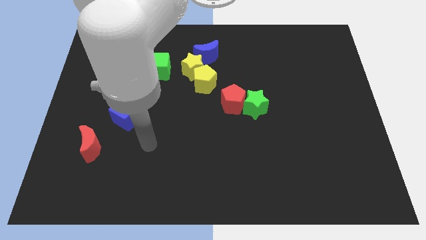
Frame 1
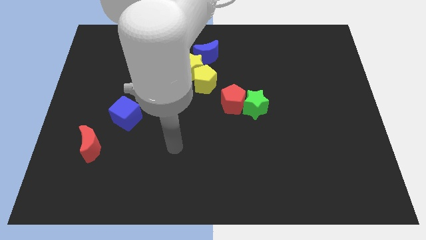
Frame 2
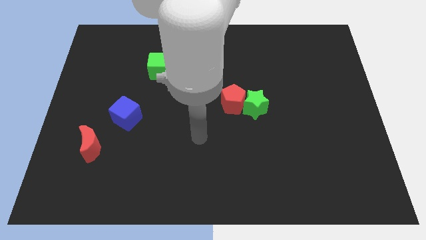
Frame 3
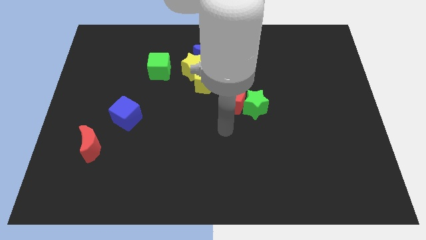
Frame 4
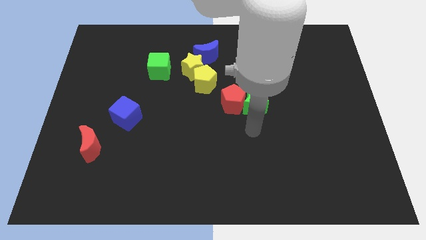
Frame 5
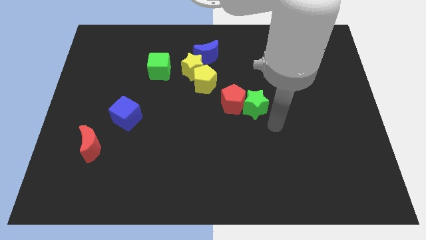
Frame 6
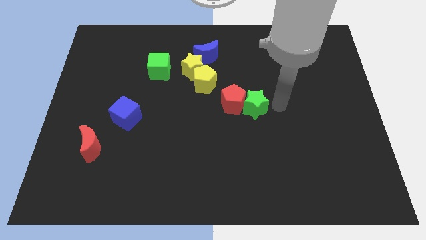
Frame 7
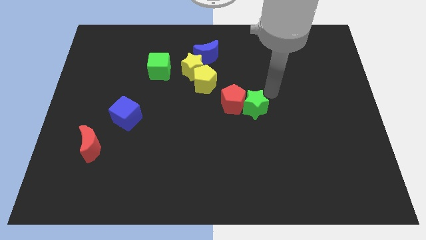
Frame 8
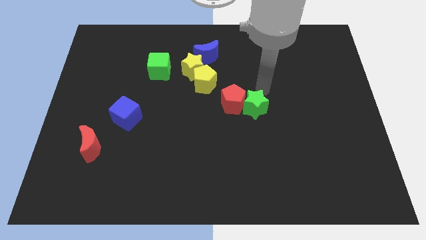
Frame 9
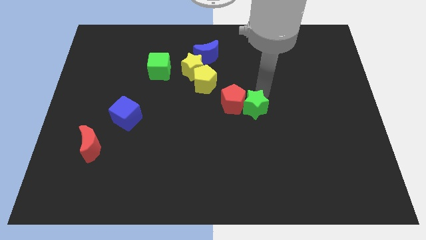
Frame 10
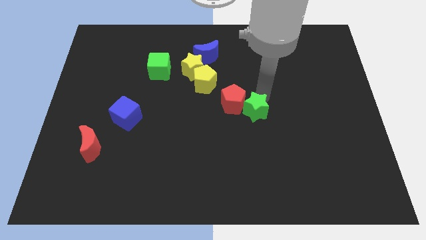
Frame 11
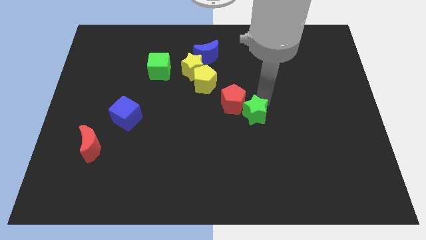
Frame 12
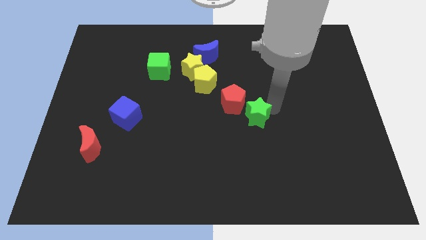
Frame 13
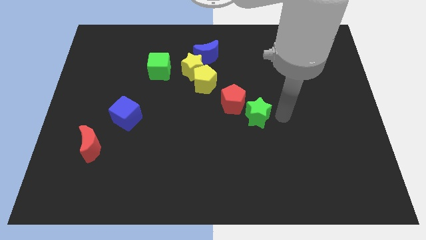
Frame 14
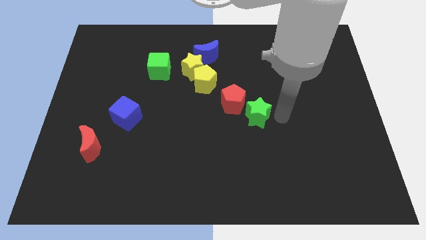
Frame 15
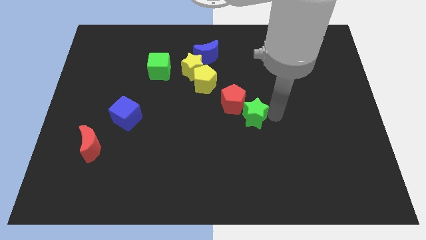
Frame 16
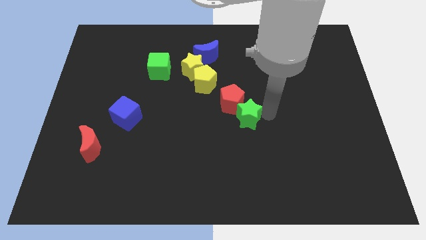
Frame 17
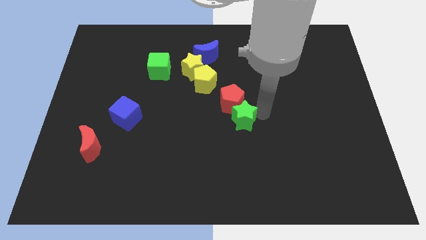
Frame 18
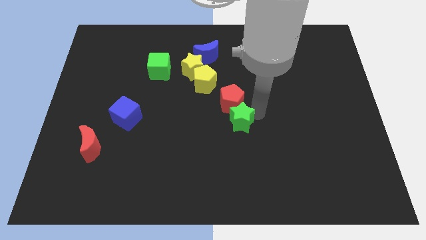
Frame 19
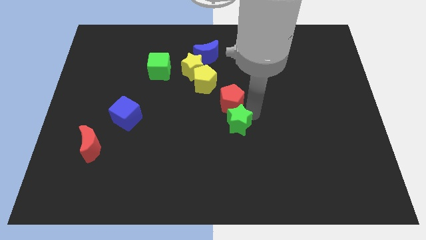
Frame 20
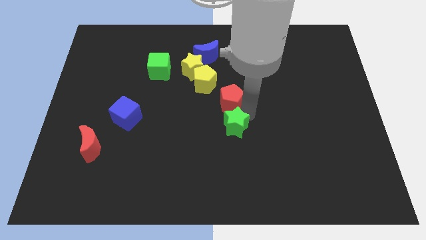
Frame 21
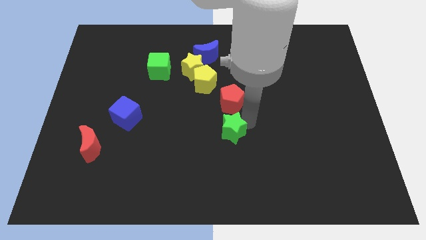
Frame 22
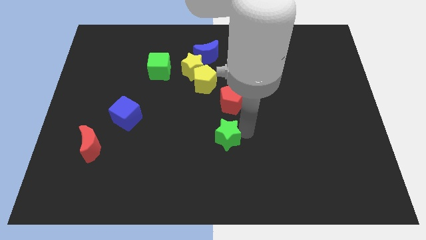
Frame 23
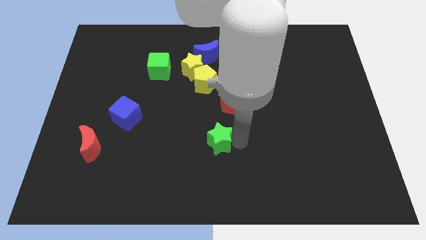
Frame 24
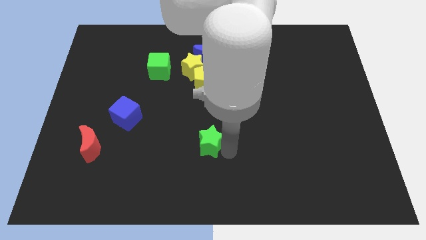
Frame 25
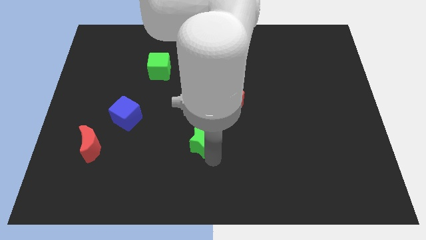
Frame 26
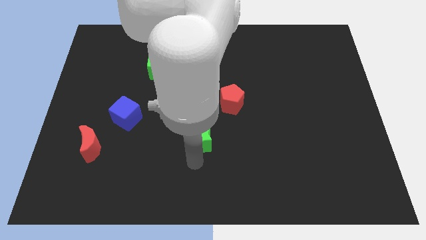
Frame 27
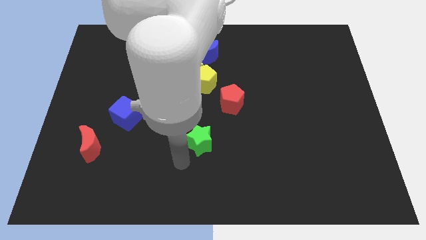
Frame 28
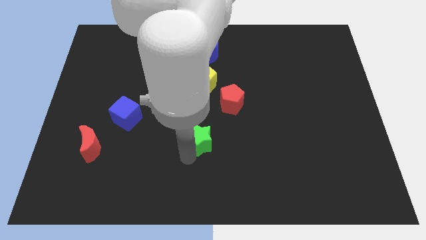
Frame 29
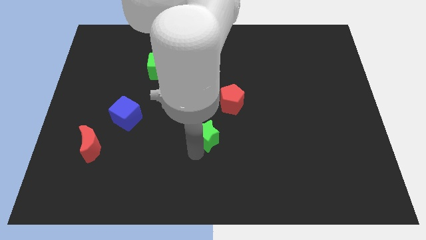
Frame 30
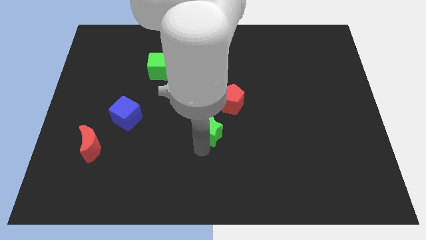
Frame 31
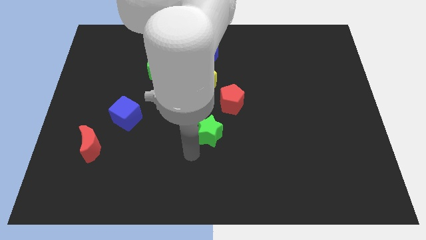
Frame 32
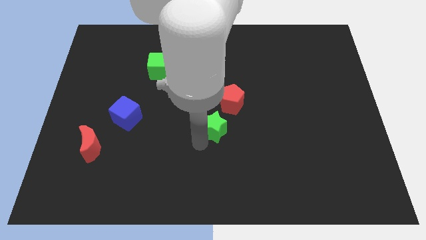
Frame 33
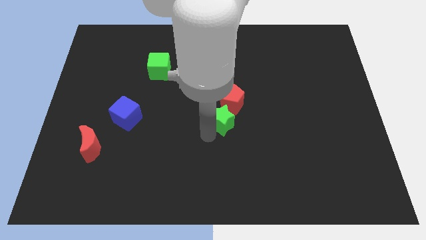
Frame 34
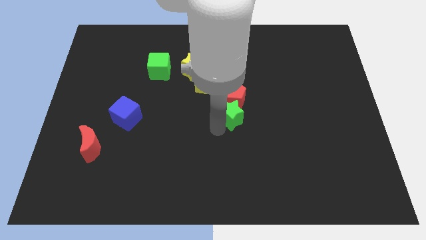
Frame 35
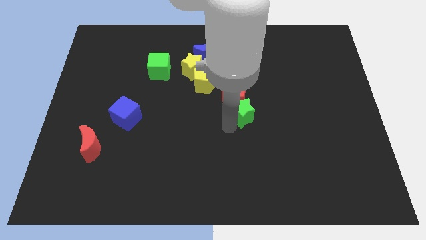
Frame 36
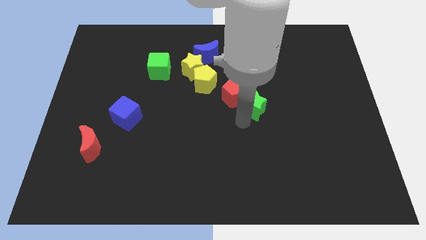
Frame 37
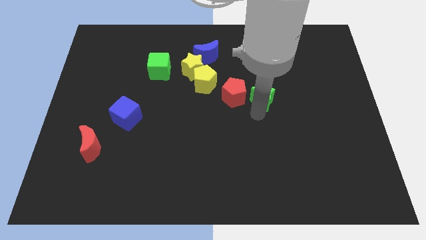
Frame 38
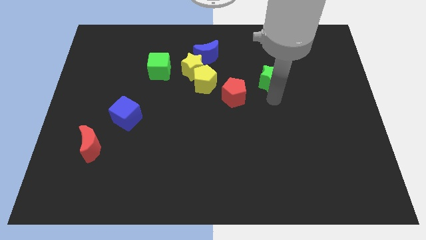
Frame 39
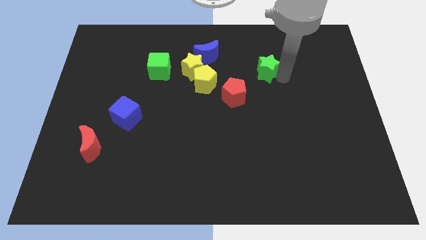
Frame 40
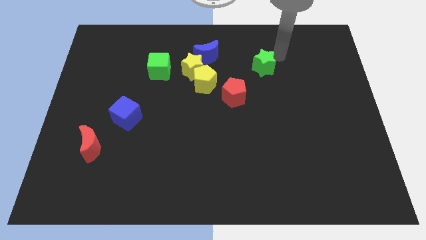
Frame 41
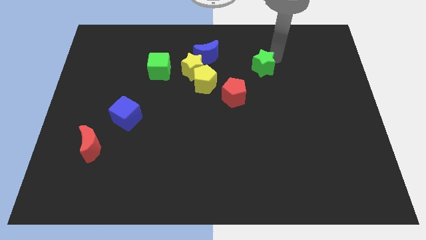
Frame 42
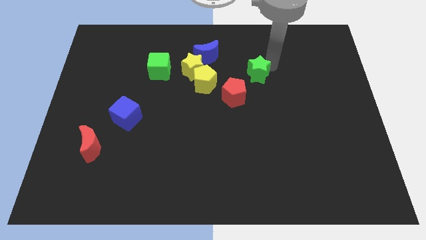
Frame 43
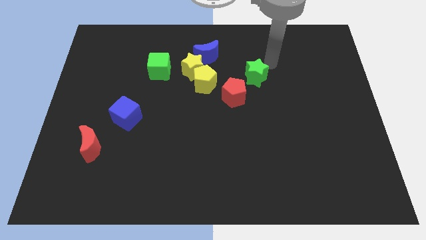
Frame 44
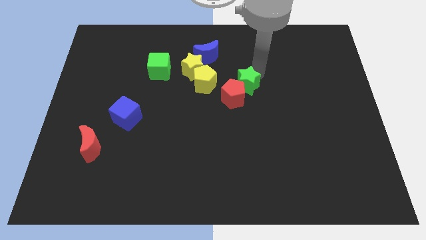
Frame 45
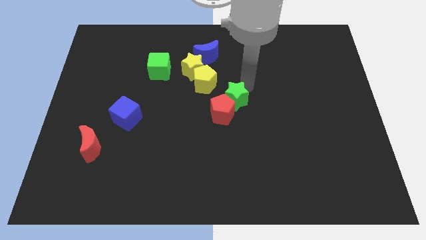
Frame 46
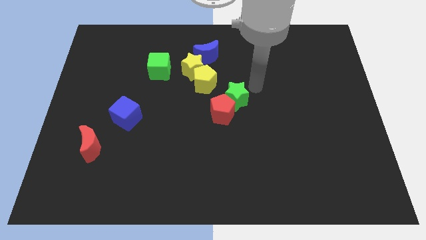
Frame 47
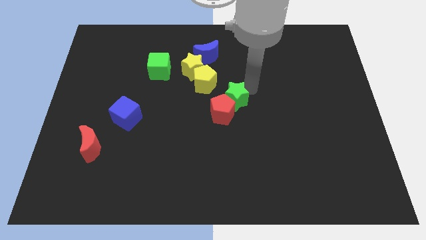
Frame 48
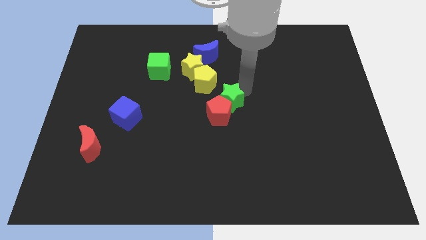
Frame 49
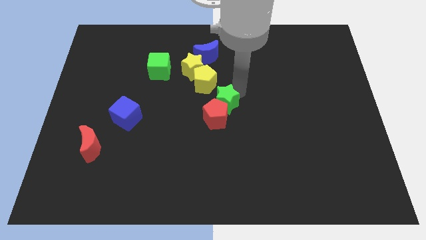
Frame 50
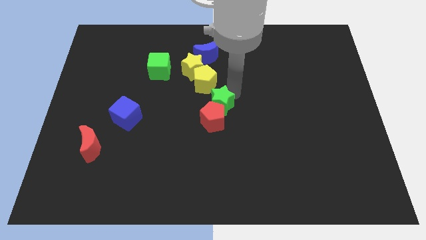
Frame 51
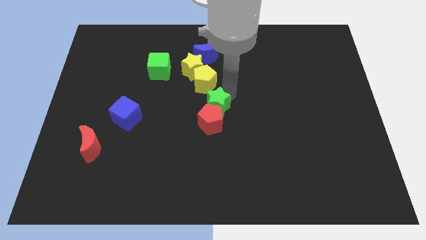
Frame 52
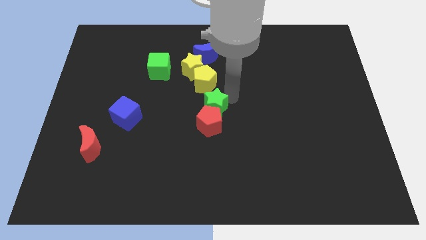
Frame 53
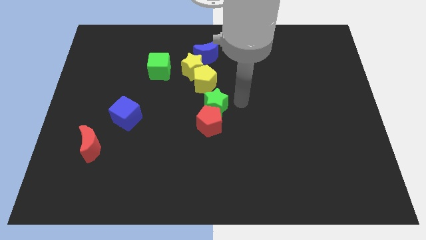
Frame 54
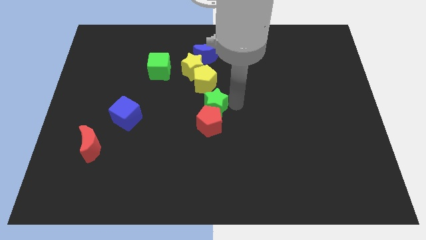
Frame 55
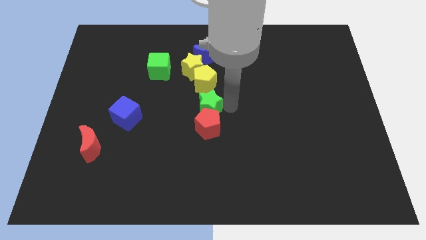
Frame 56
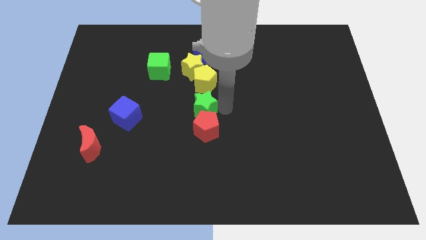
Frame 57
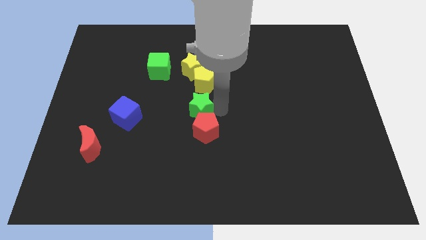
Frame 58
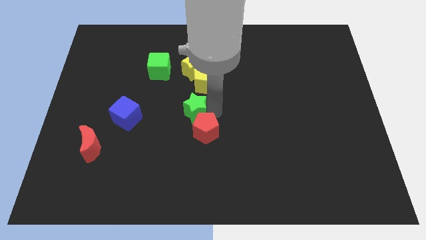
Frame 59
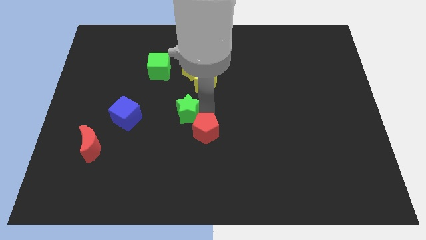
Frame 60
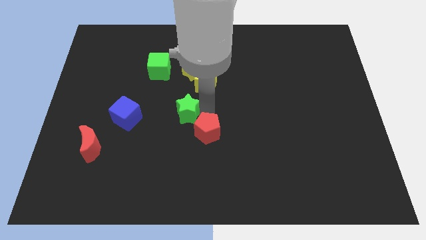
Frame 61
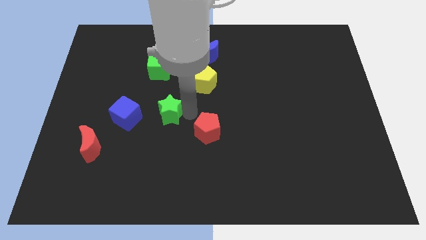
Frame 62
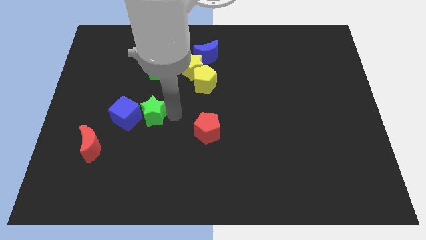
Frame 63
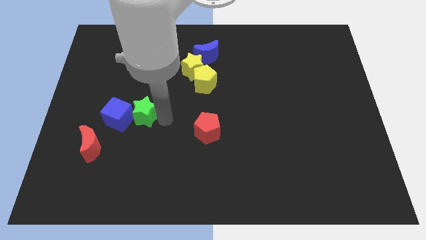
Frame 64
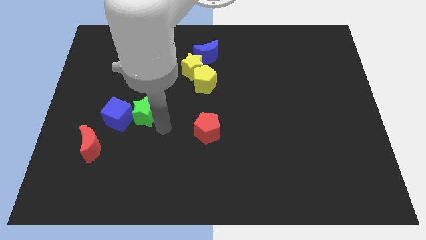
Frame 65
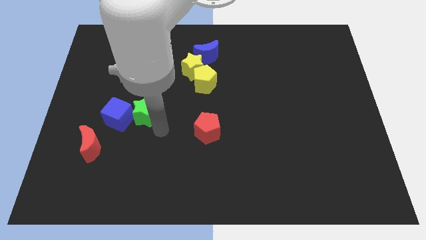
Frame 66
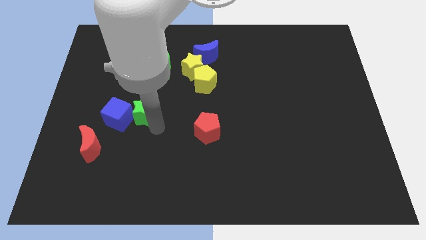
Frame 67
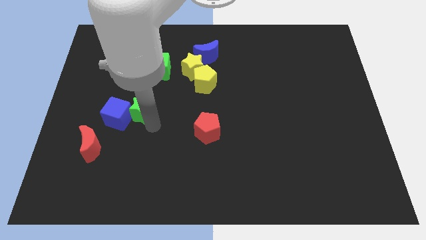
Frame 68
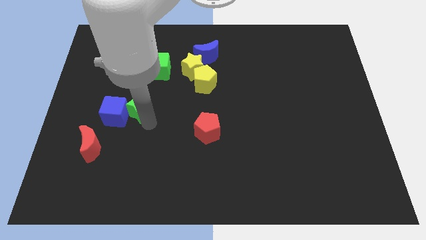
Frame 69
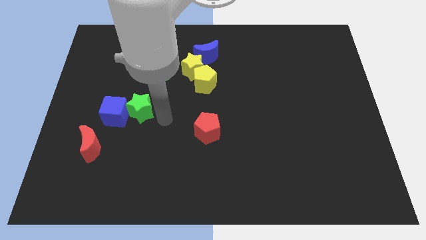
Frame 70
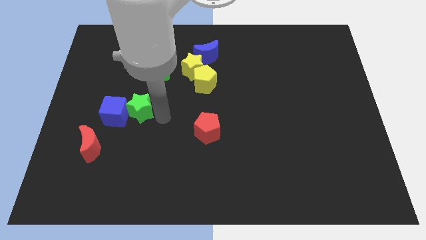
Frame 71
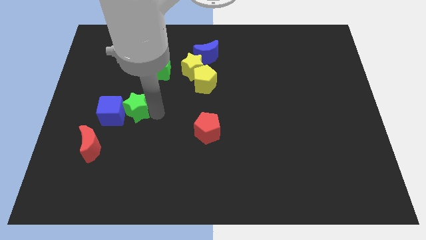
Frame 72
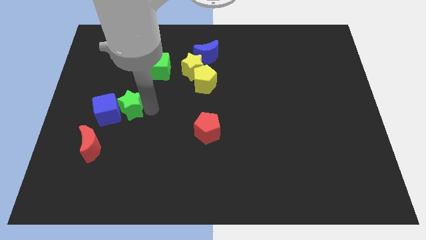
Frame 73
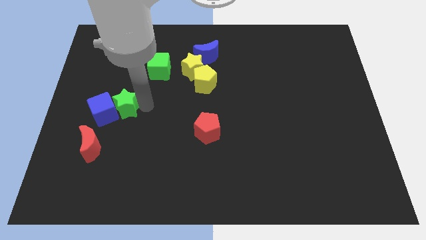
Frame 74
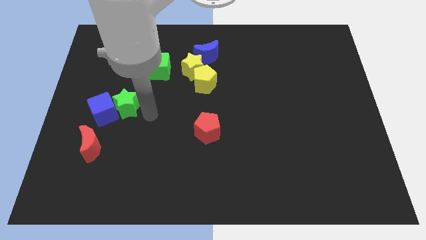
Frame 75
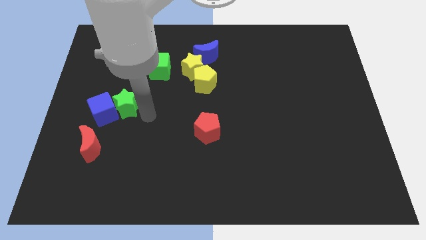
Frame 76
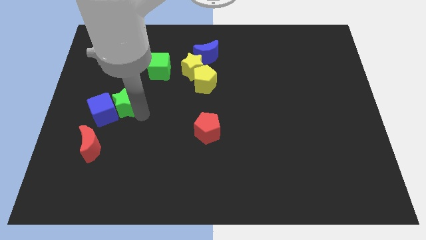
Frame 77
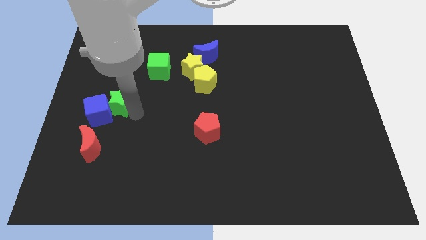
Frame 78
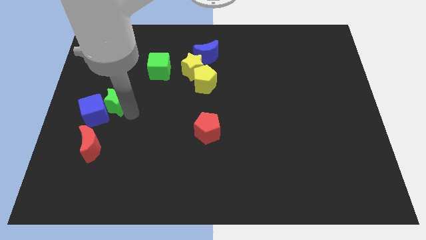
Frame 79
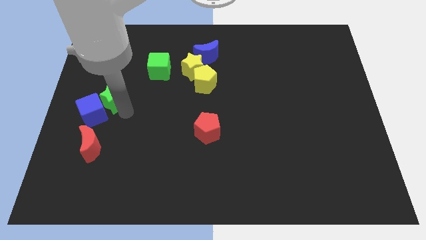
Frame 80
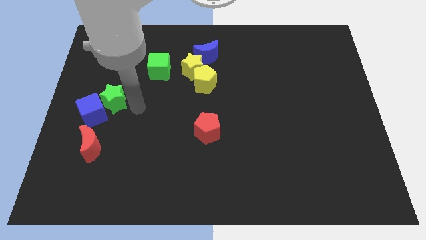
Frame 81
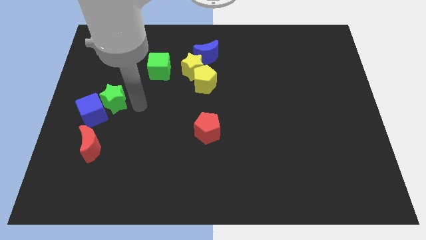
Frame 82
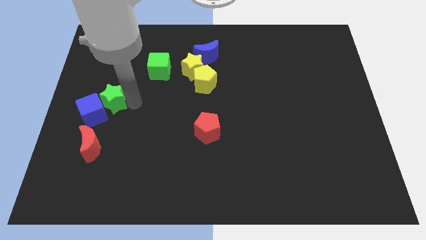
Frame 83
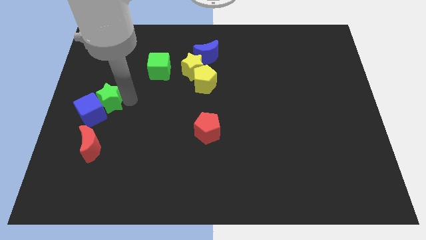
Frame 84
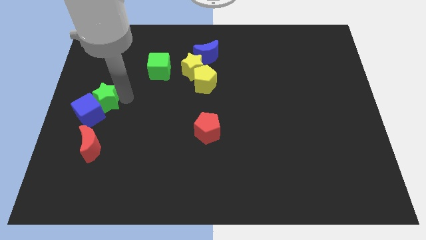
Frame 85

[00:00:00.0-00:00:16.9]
move the green star to the left side of the board
